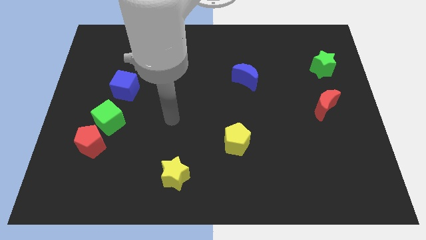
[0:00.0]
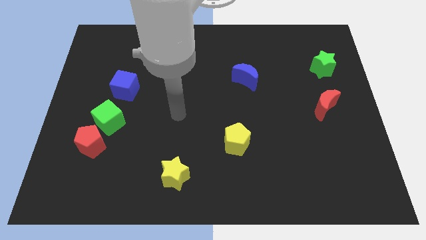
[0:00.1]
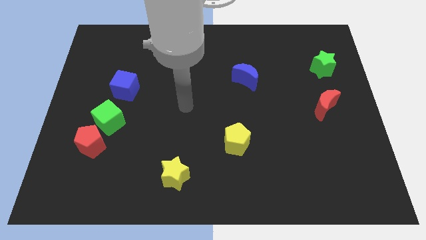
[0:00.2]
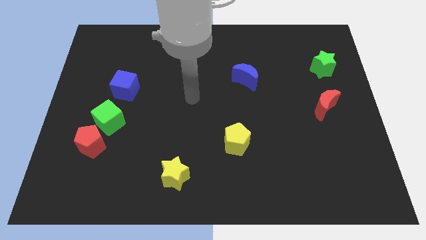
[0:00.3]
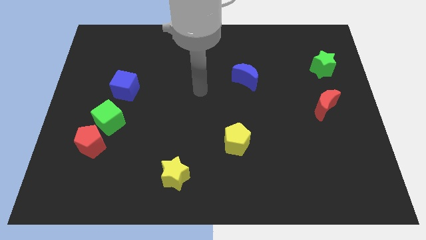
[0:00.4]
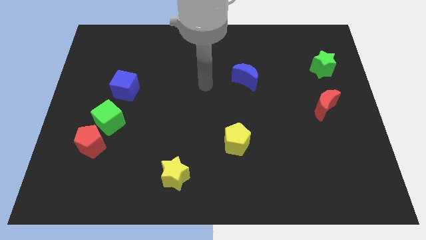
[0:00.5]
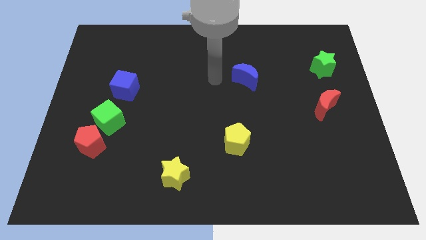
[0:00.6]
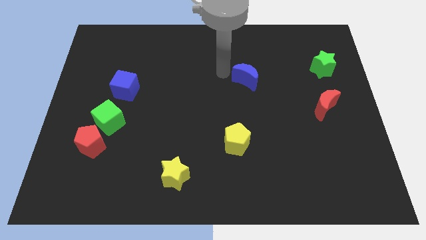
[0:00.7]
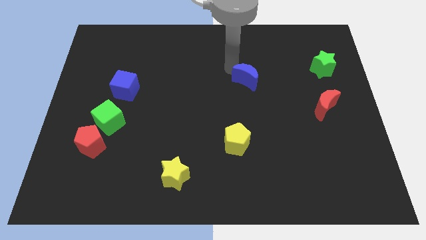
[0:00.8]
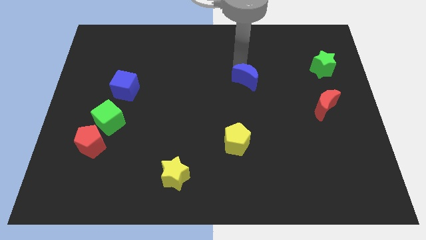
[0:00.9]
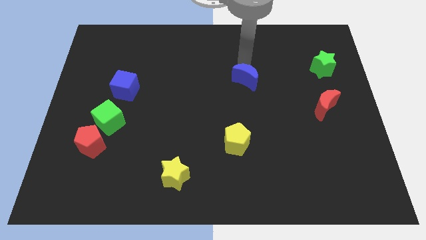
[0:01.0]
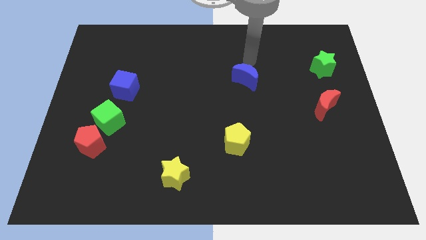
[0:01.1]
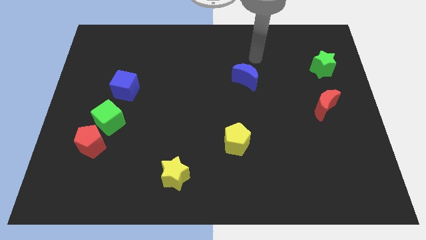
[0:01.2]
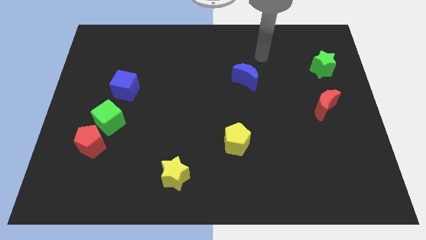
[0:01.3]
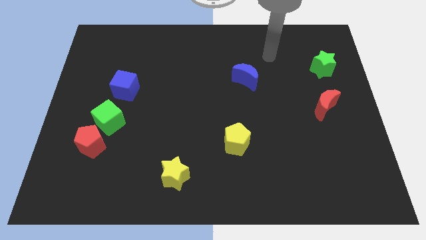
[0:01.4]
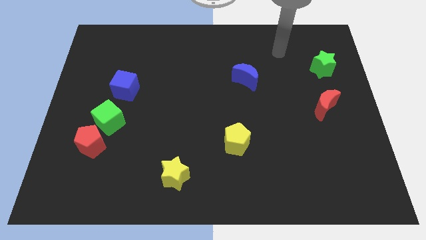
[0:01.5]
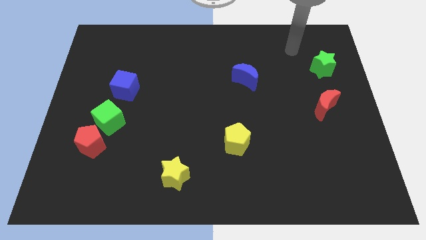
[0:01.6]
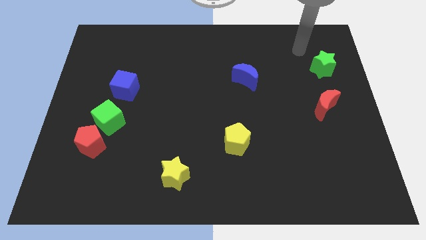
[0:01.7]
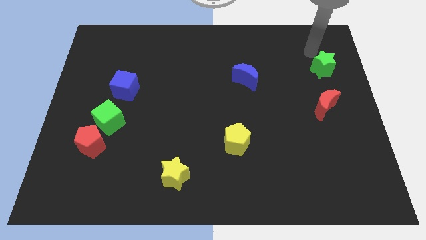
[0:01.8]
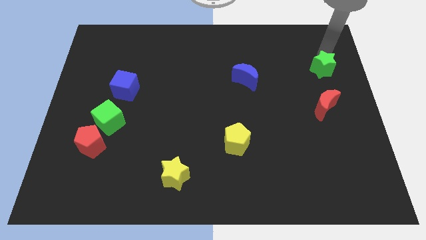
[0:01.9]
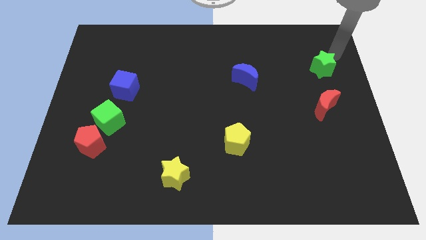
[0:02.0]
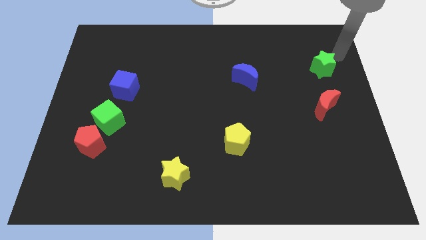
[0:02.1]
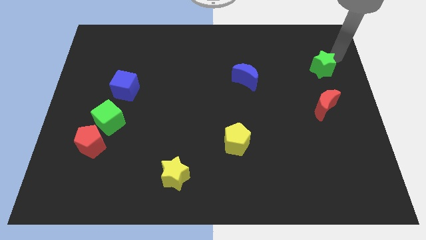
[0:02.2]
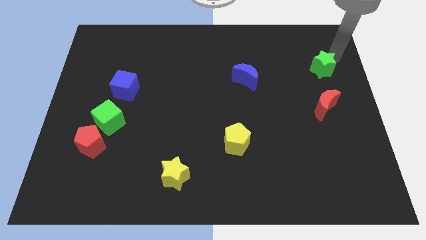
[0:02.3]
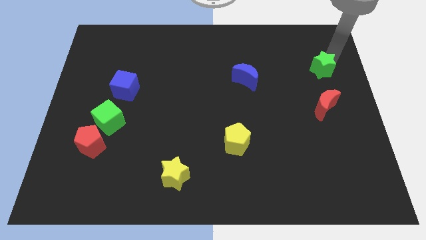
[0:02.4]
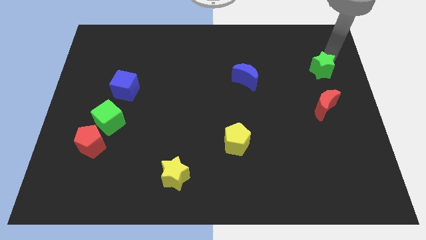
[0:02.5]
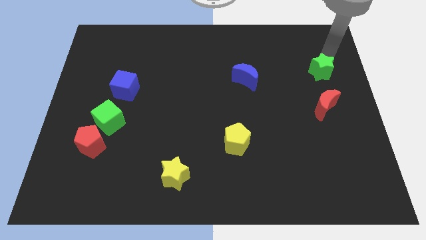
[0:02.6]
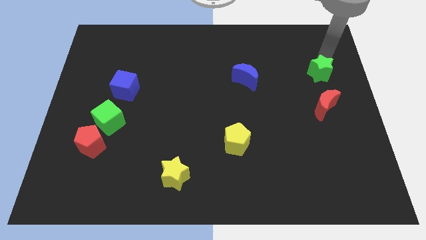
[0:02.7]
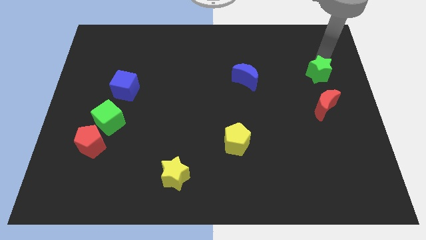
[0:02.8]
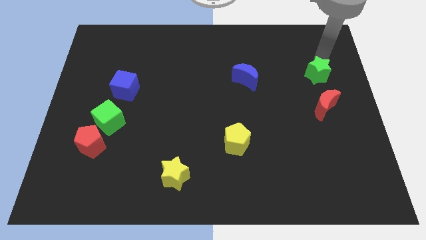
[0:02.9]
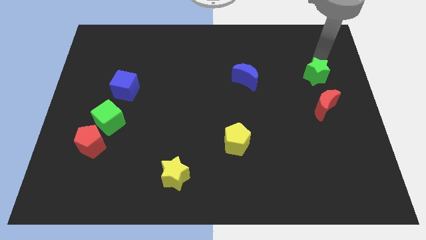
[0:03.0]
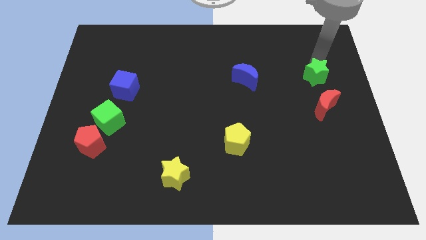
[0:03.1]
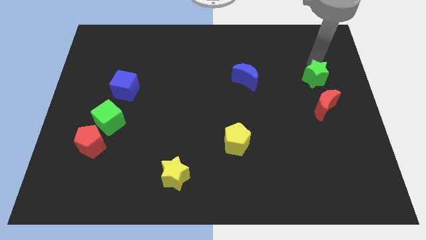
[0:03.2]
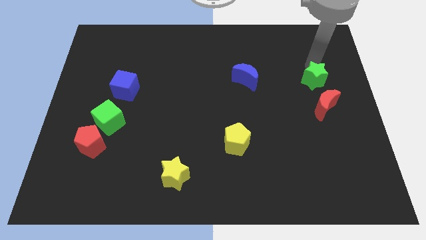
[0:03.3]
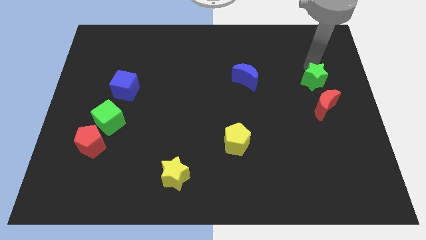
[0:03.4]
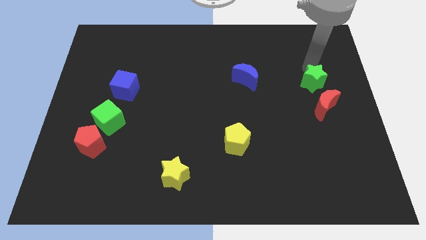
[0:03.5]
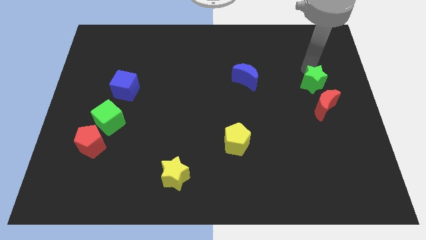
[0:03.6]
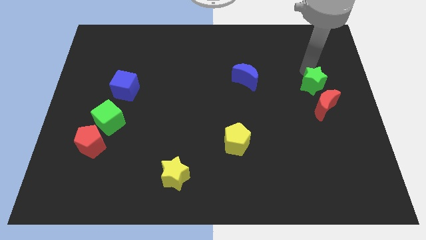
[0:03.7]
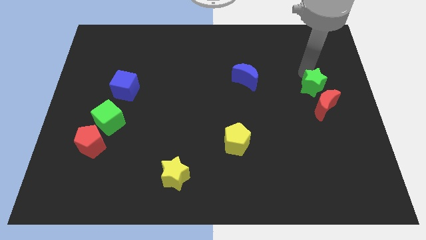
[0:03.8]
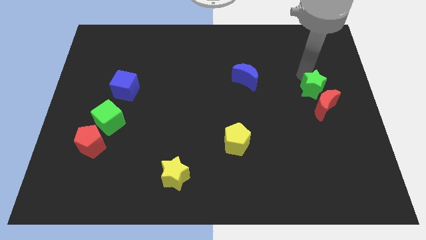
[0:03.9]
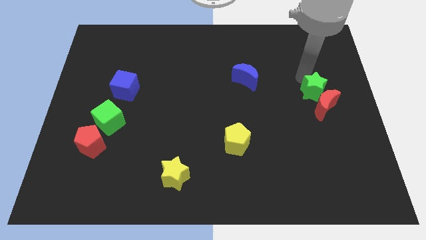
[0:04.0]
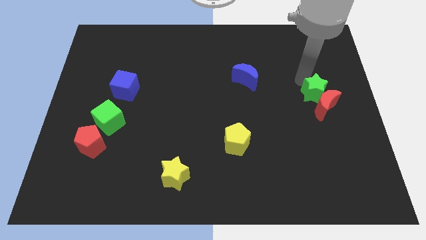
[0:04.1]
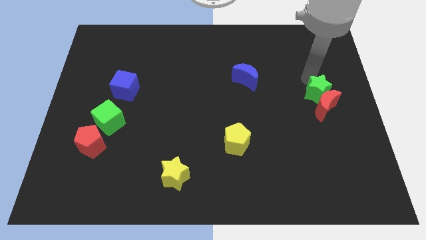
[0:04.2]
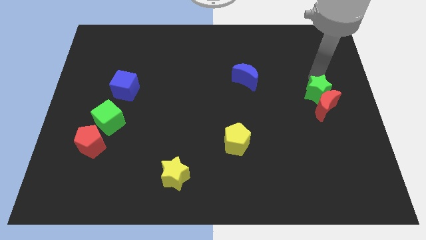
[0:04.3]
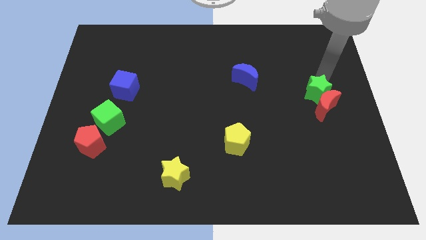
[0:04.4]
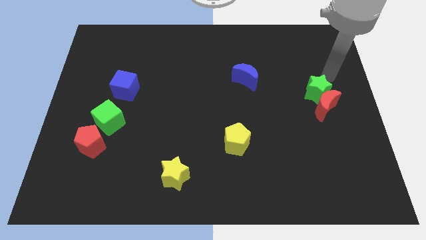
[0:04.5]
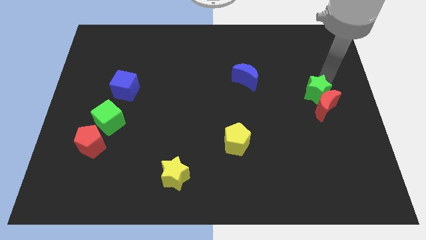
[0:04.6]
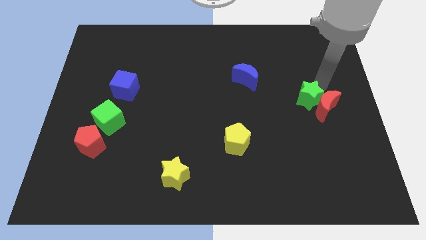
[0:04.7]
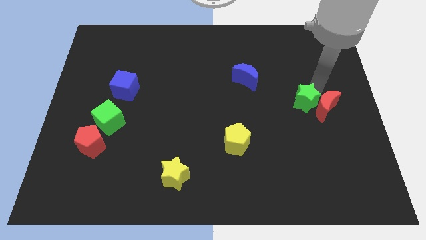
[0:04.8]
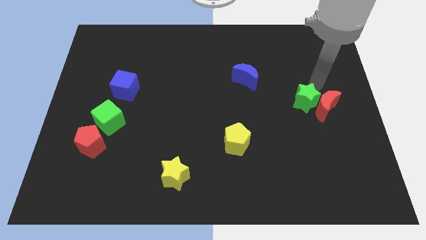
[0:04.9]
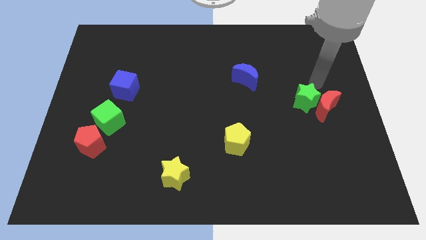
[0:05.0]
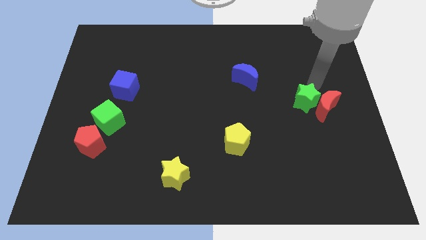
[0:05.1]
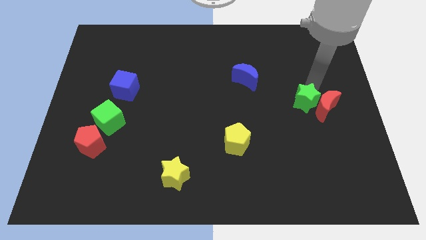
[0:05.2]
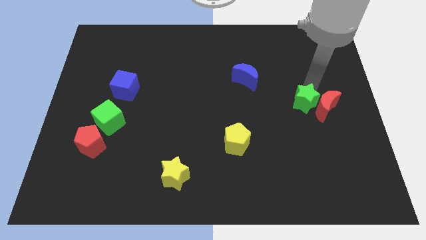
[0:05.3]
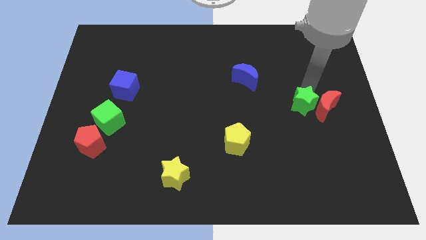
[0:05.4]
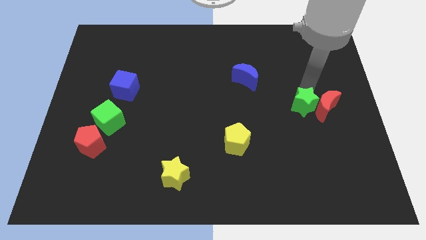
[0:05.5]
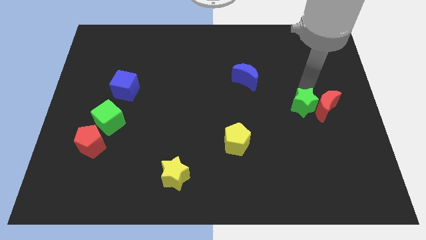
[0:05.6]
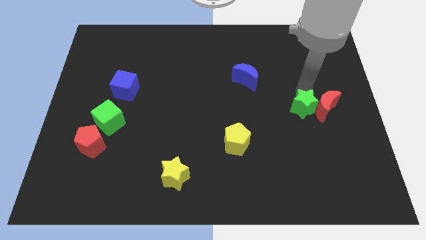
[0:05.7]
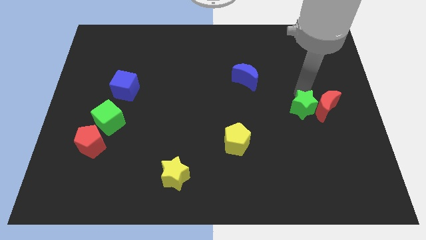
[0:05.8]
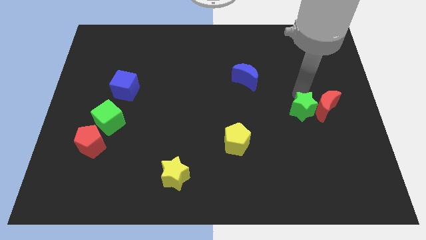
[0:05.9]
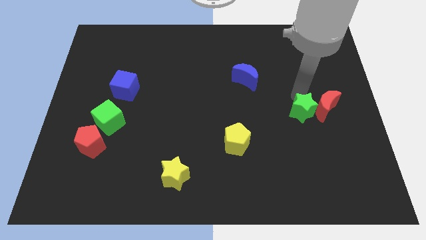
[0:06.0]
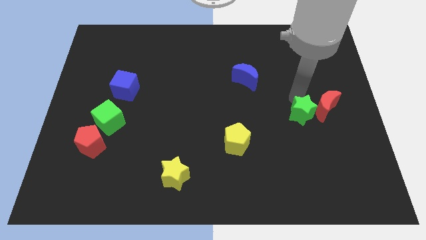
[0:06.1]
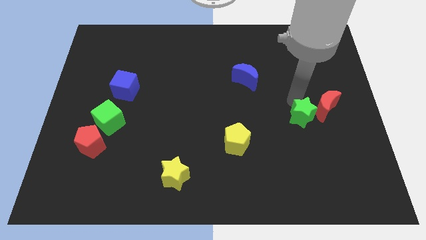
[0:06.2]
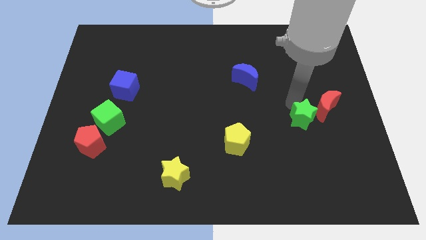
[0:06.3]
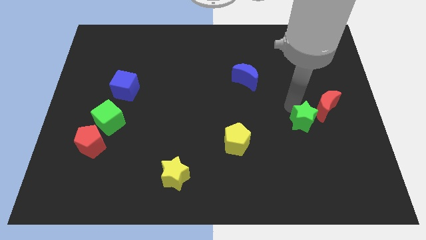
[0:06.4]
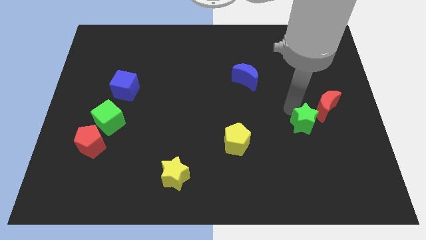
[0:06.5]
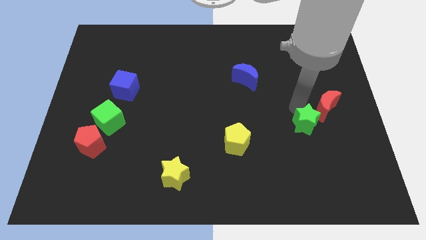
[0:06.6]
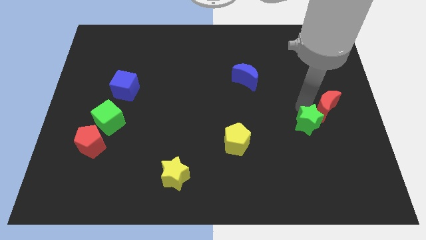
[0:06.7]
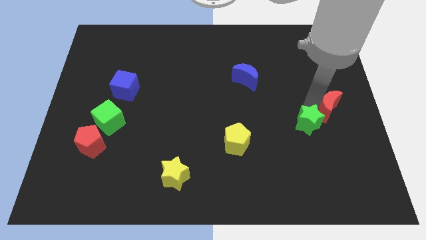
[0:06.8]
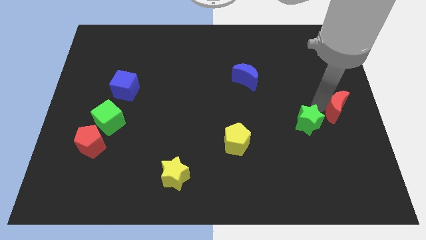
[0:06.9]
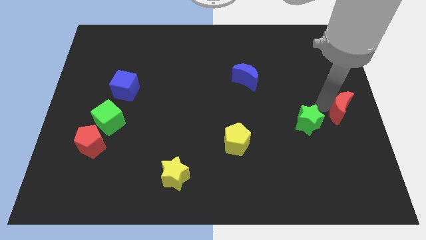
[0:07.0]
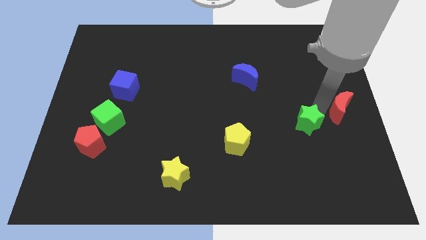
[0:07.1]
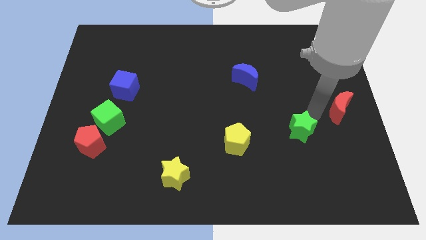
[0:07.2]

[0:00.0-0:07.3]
push the green star just right of the yellow pentagon
